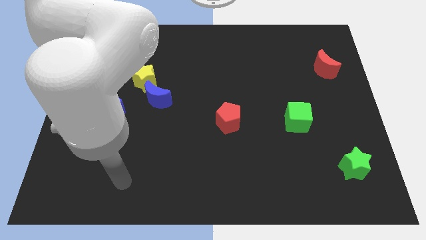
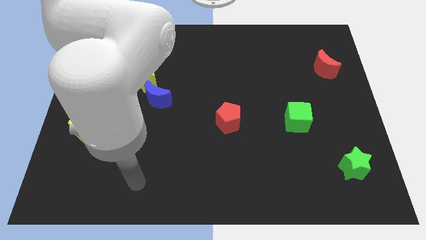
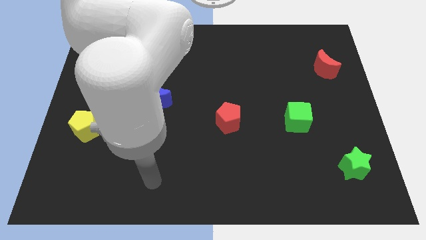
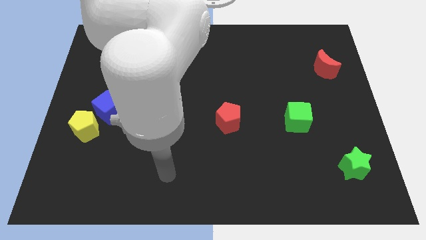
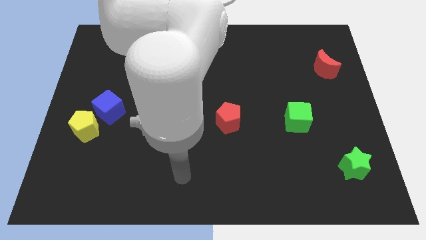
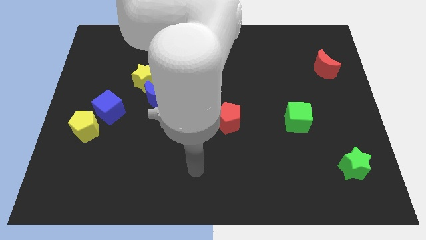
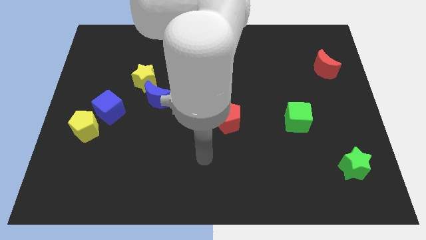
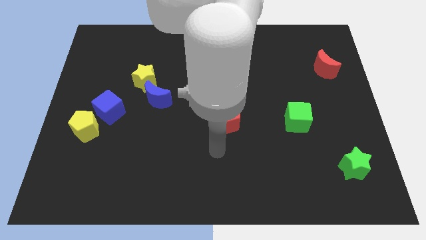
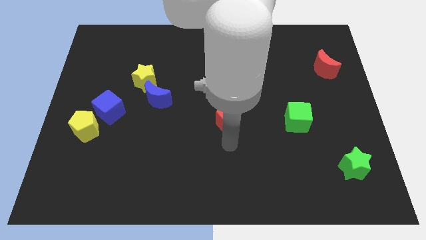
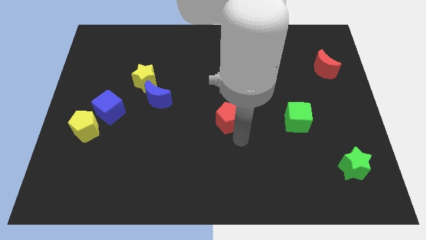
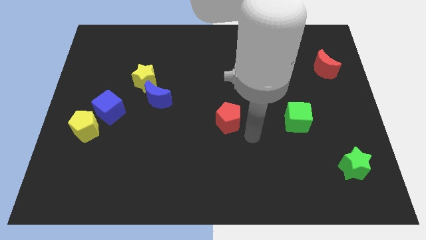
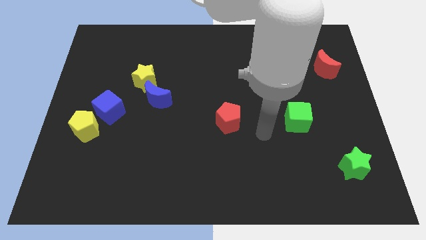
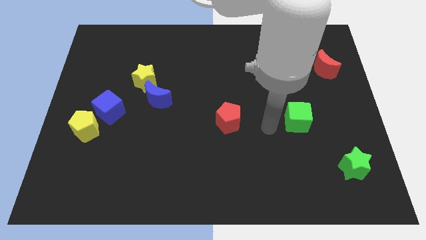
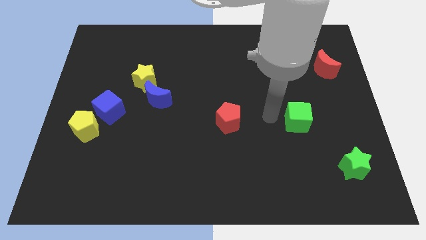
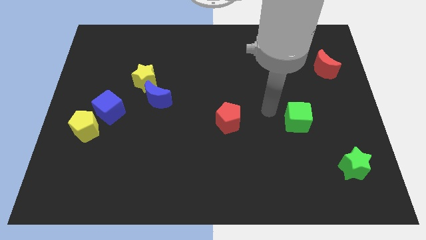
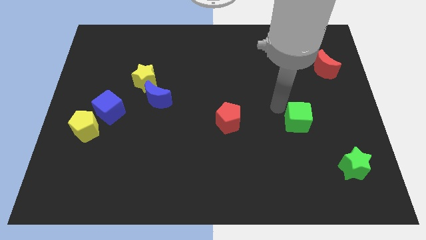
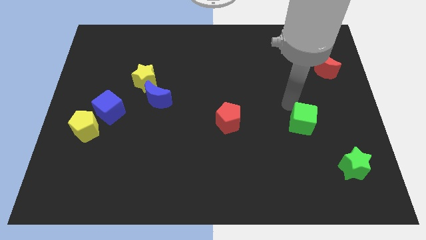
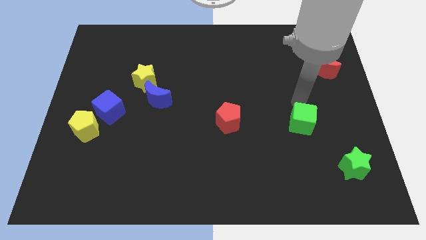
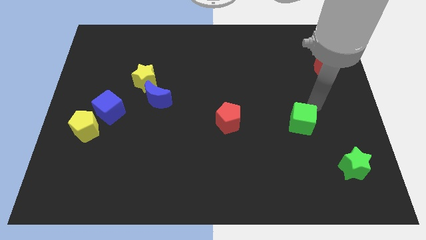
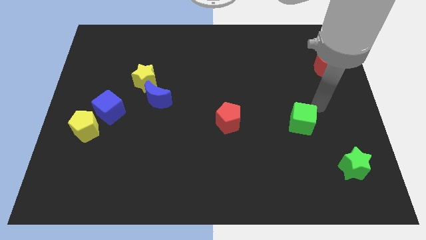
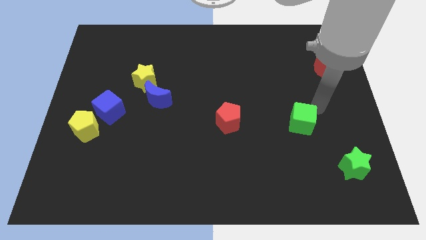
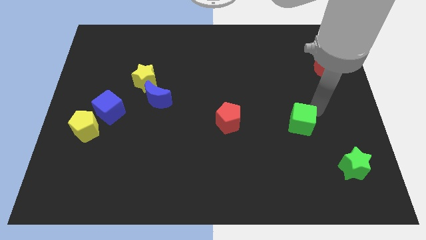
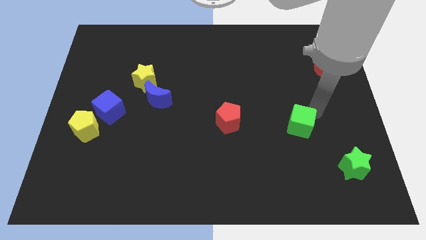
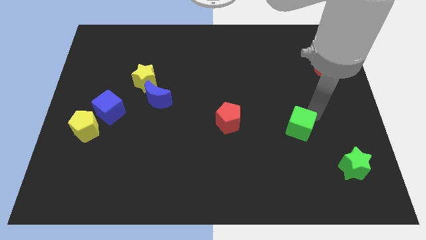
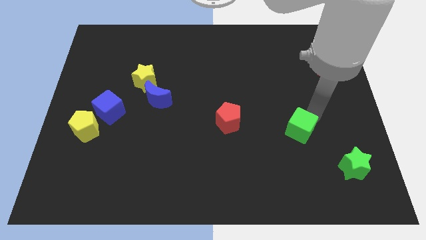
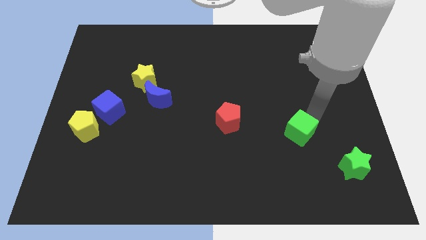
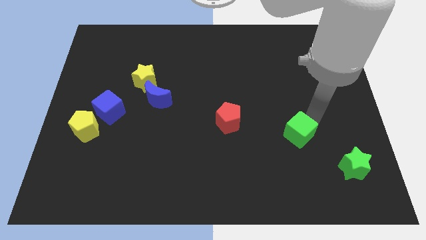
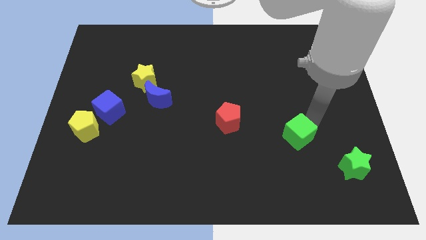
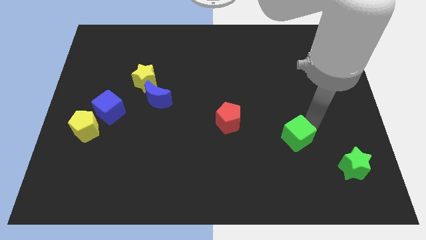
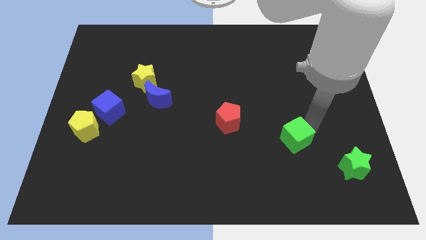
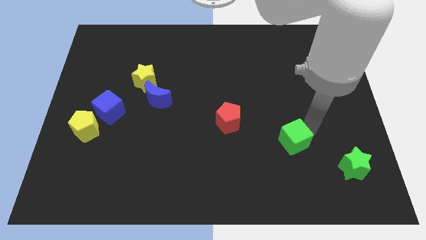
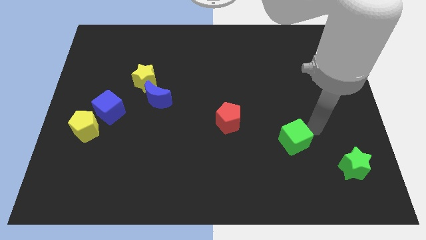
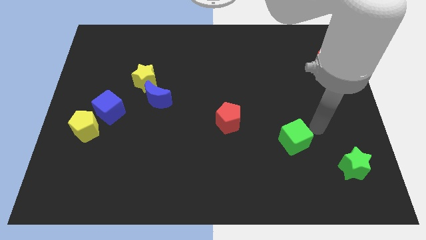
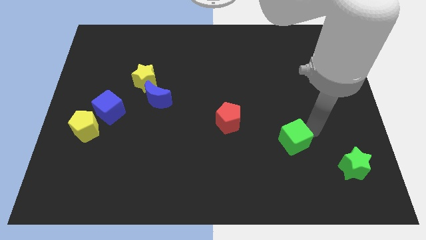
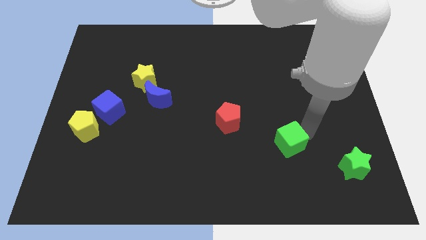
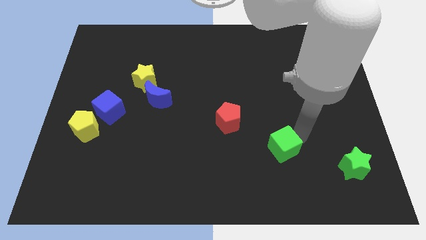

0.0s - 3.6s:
move the green cube somewhat downwards and left diagonally

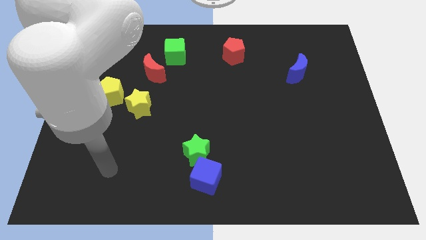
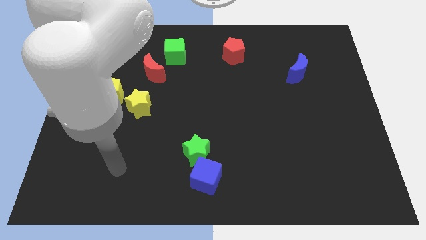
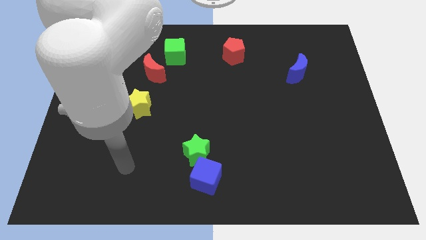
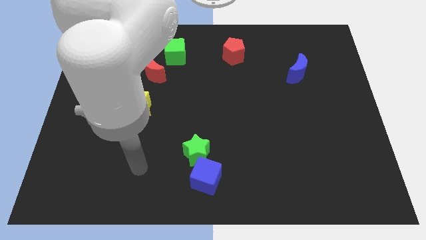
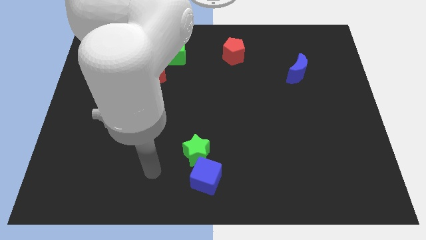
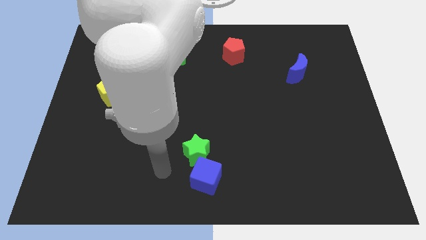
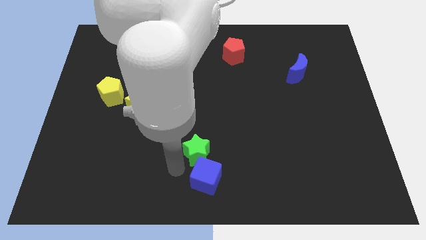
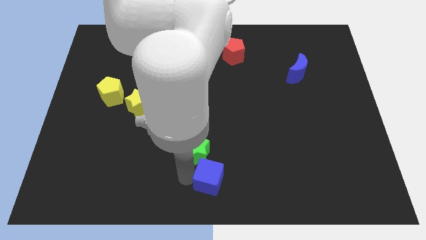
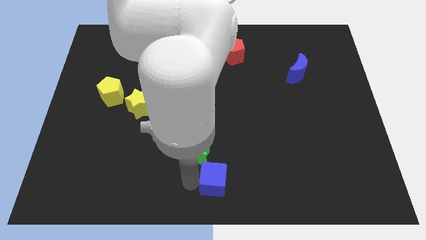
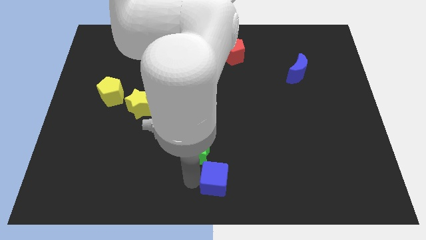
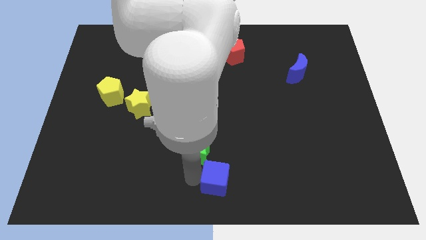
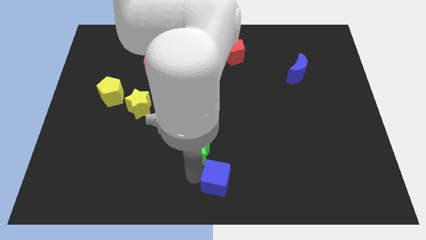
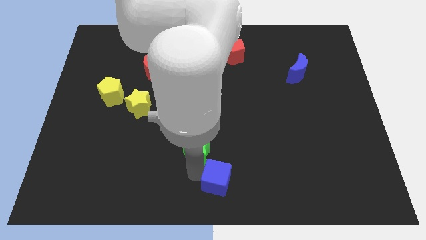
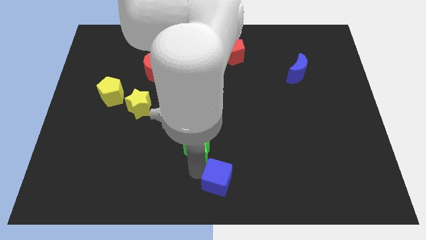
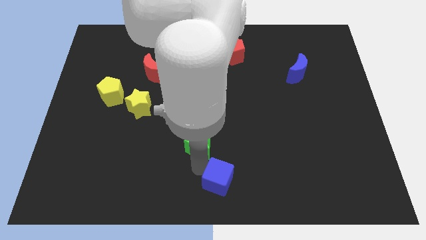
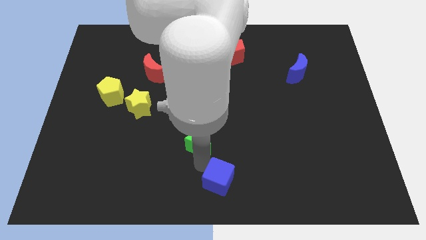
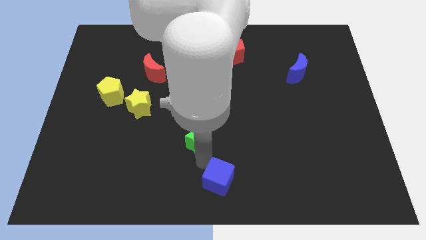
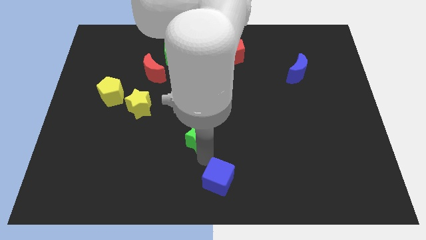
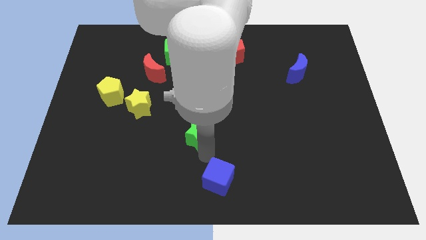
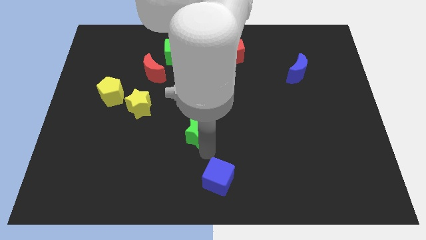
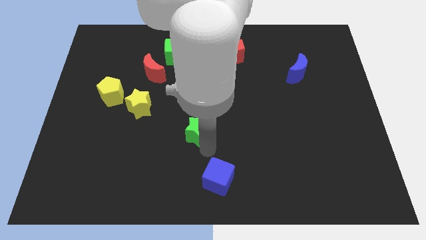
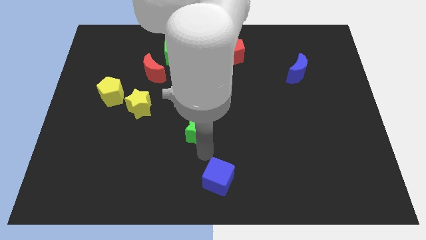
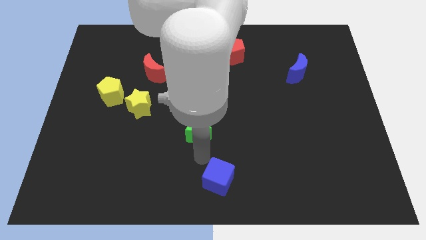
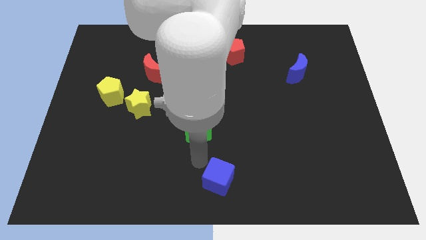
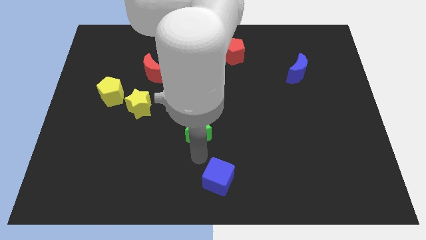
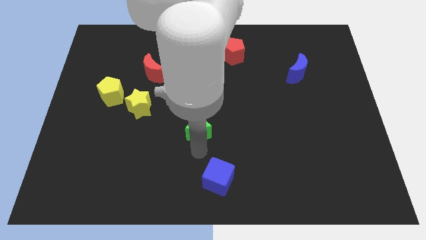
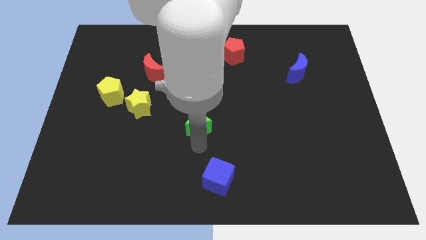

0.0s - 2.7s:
slide the green star upwards somewhat

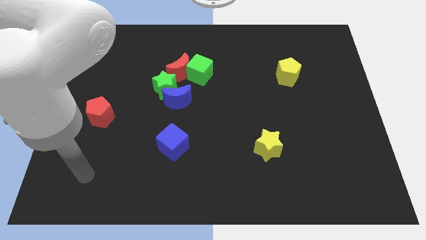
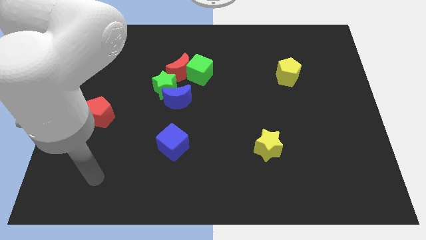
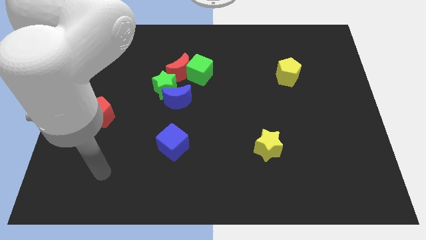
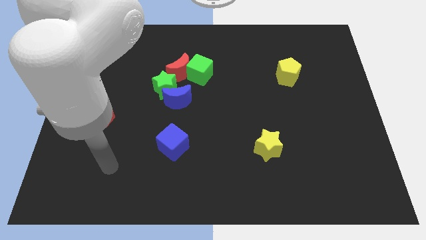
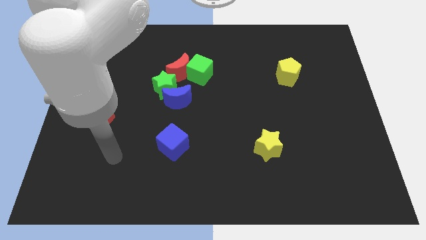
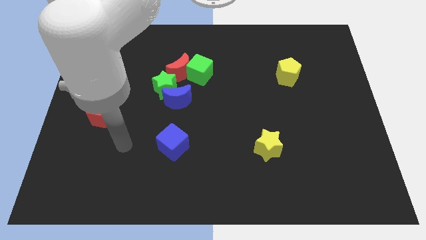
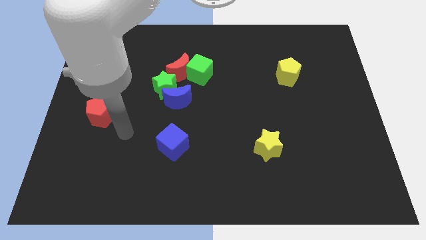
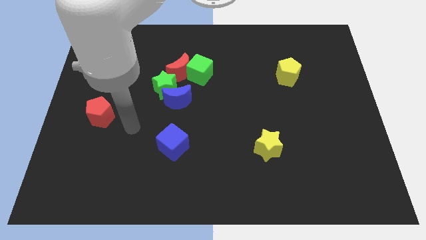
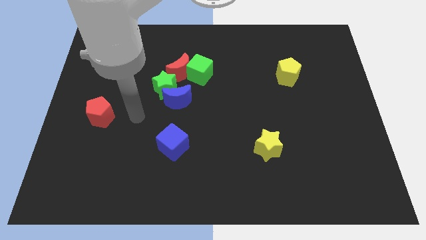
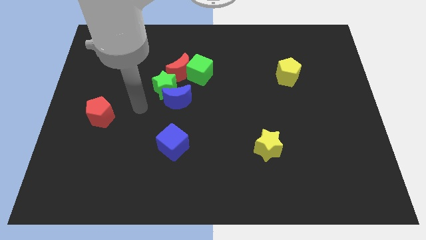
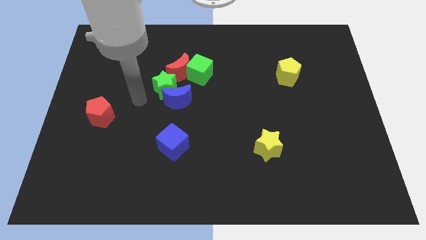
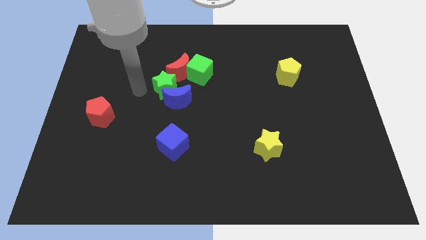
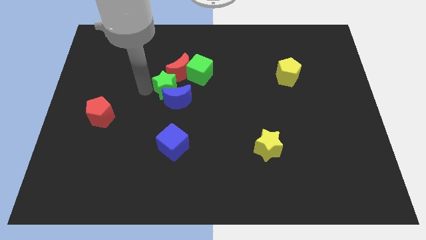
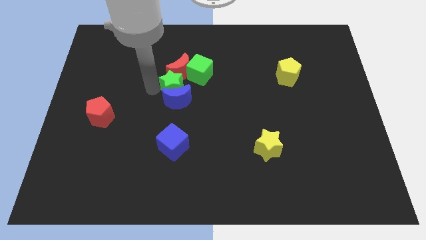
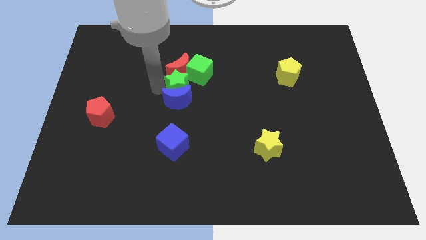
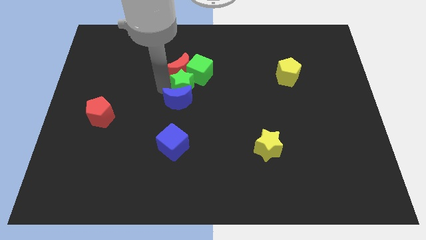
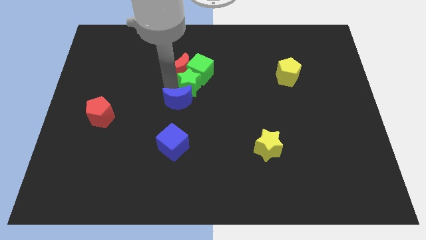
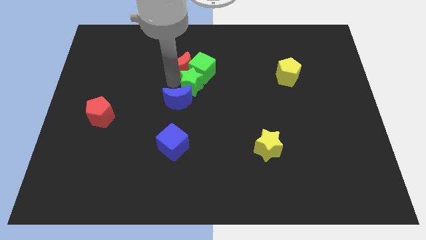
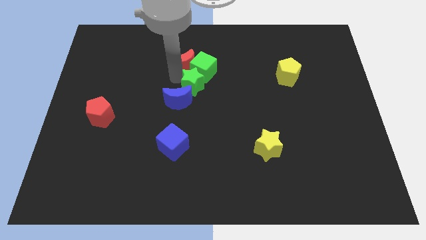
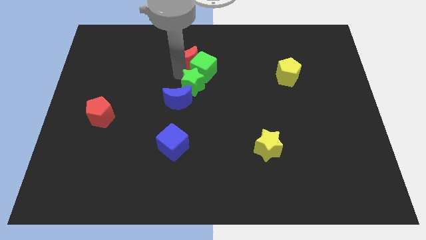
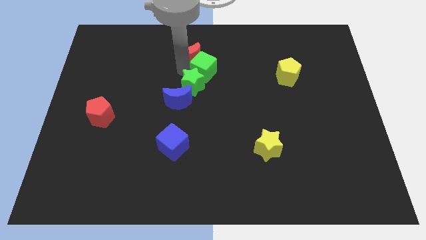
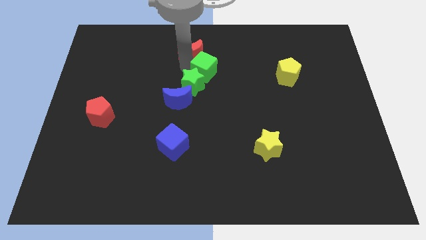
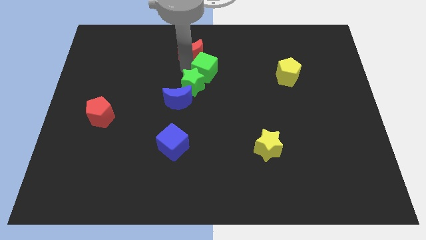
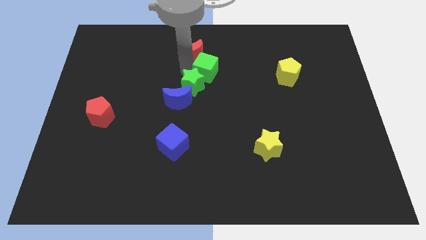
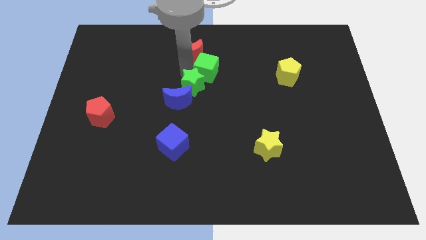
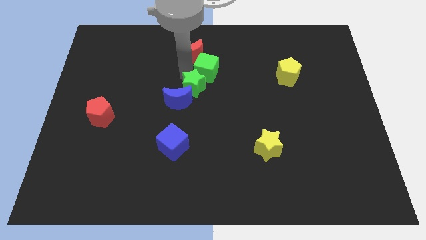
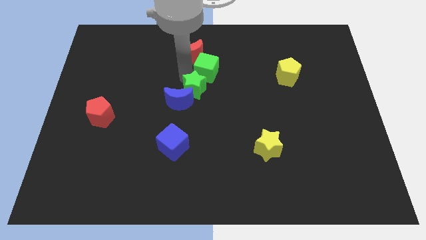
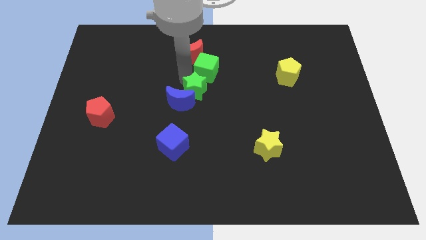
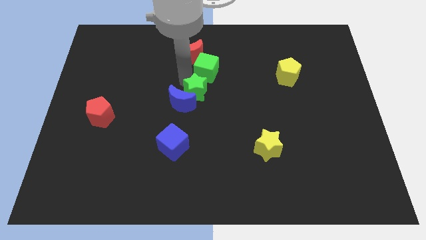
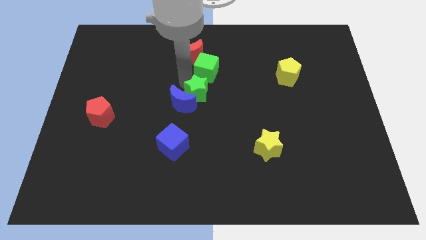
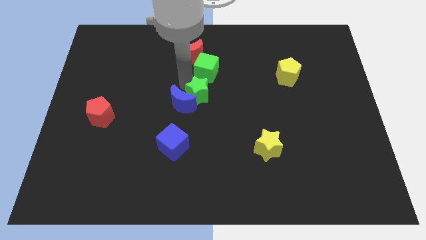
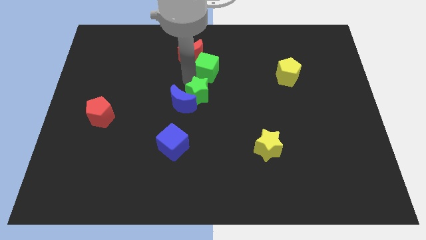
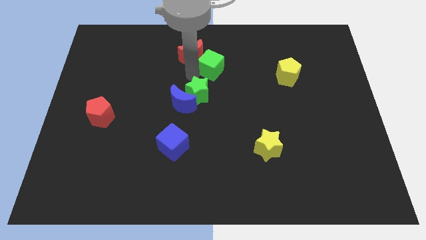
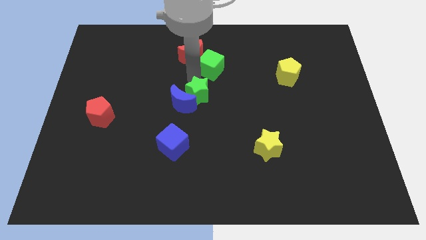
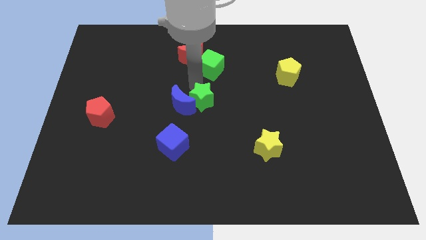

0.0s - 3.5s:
slightly move the green star down and then to the right
